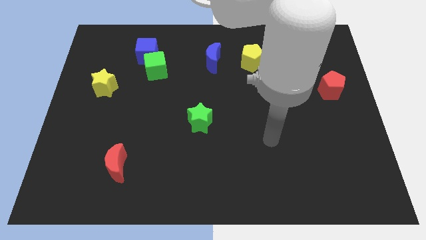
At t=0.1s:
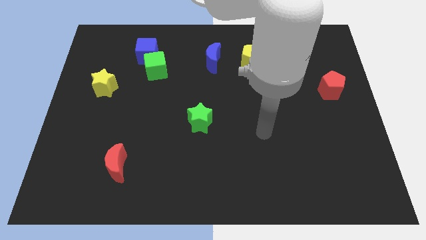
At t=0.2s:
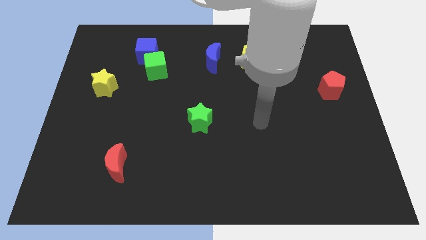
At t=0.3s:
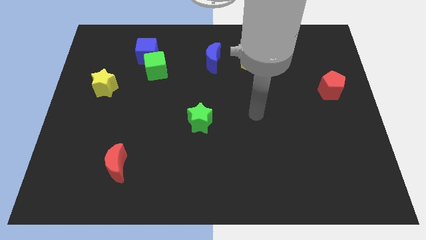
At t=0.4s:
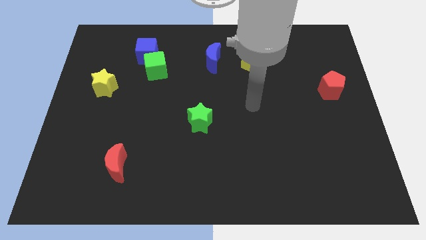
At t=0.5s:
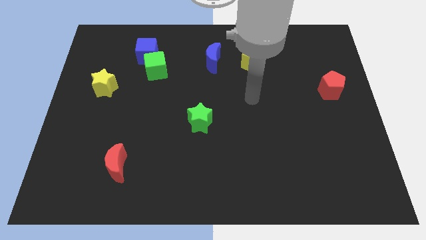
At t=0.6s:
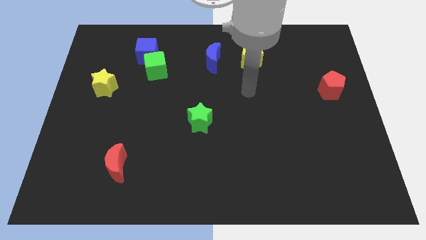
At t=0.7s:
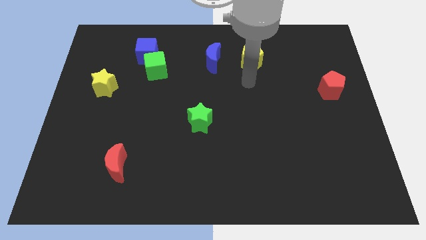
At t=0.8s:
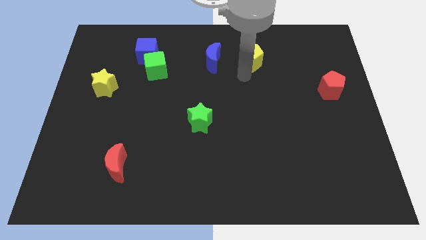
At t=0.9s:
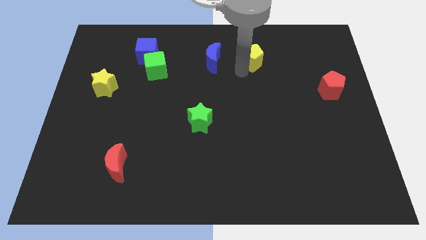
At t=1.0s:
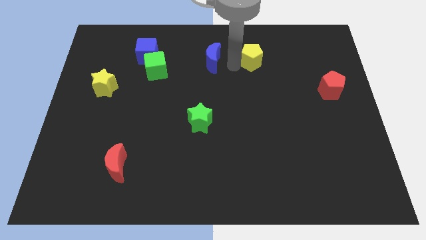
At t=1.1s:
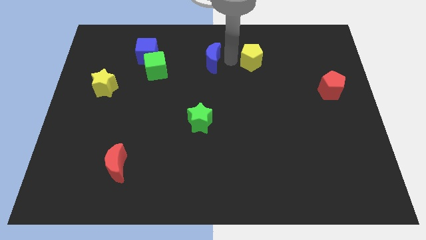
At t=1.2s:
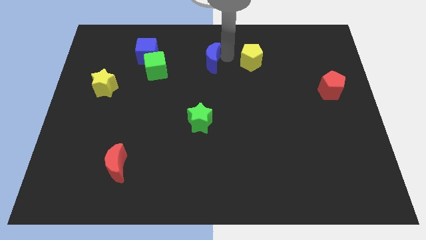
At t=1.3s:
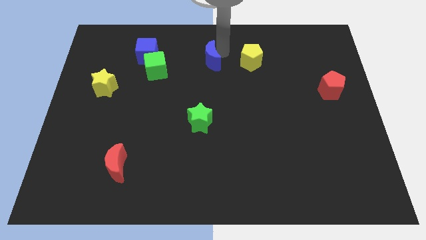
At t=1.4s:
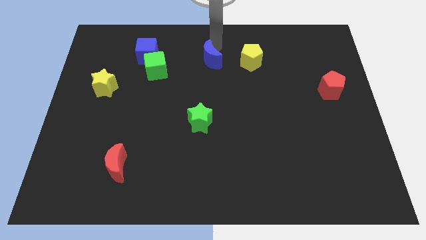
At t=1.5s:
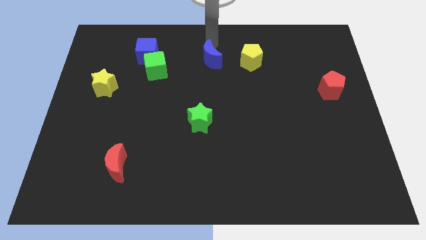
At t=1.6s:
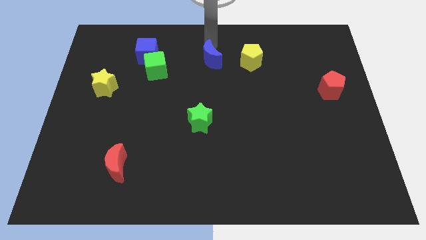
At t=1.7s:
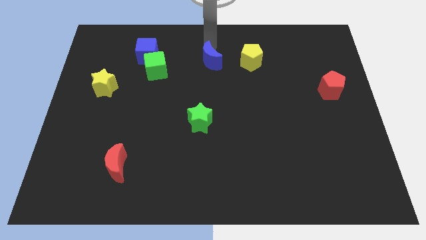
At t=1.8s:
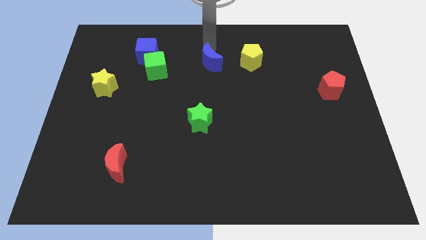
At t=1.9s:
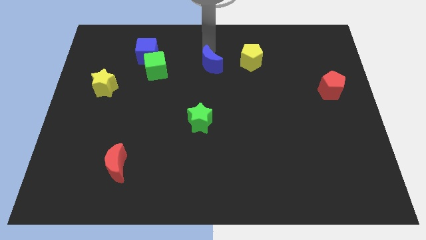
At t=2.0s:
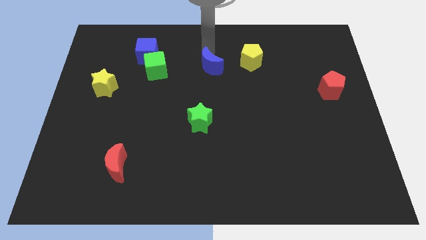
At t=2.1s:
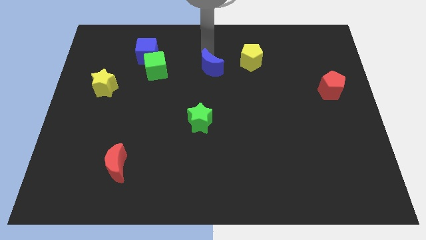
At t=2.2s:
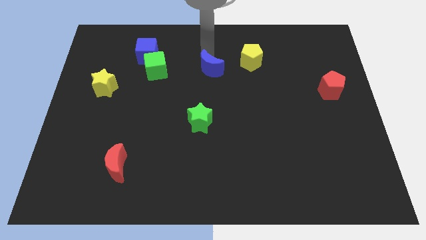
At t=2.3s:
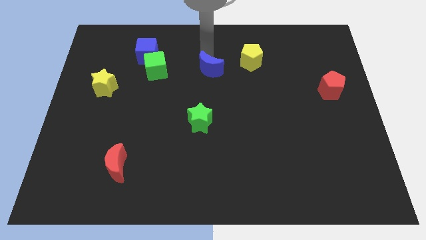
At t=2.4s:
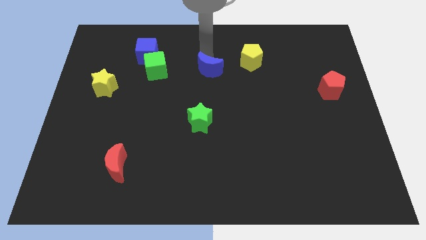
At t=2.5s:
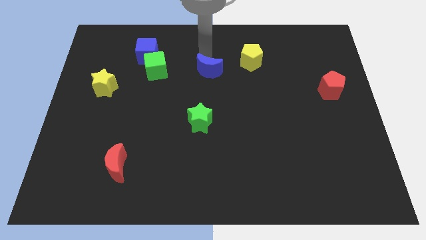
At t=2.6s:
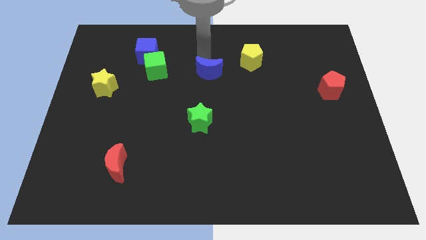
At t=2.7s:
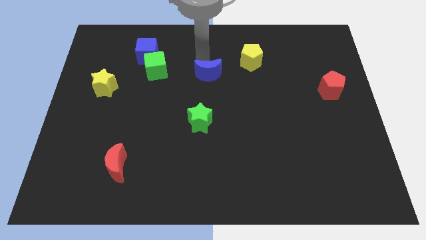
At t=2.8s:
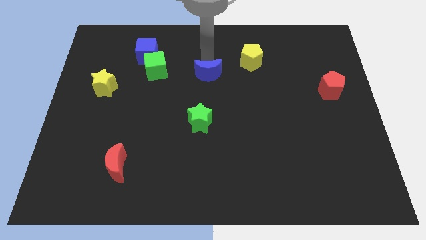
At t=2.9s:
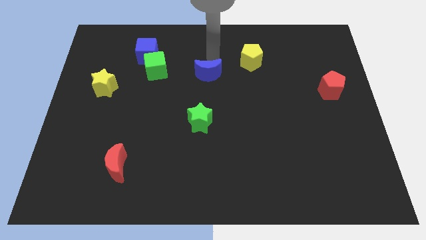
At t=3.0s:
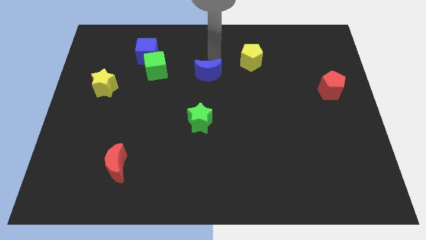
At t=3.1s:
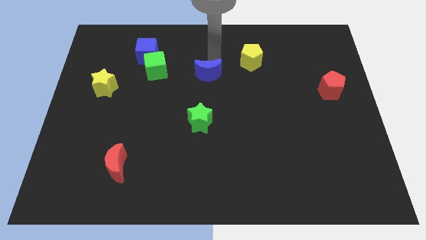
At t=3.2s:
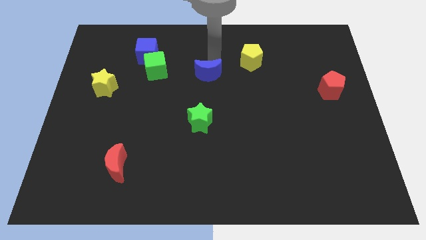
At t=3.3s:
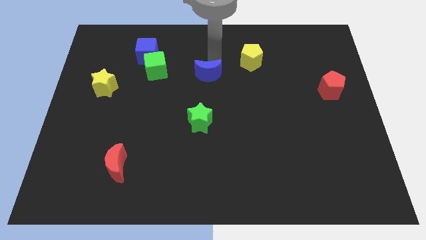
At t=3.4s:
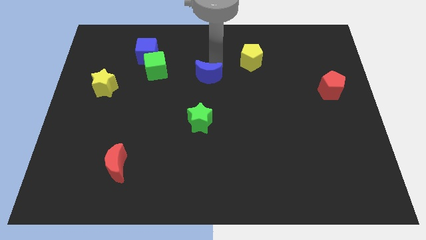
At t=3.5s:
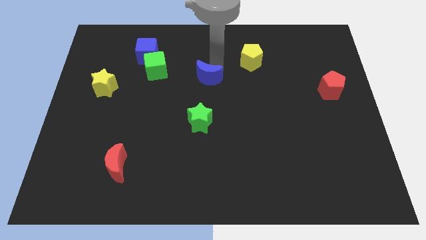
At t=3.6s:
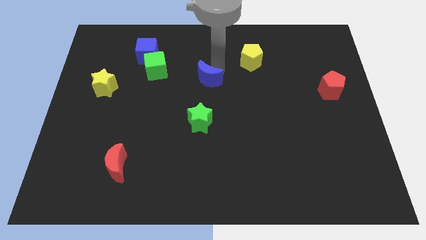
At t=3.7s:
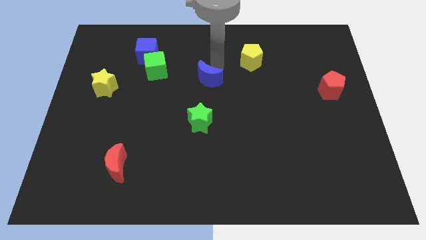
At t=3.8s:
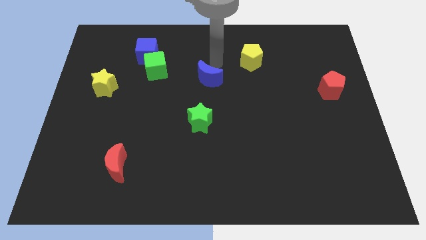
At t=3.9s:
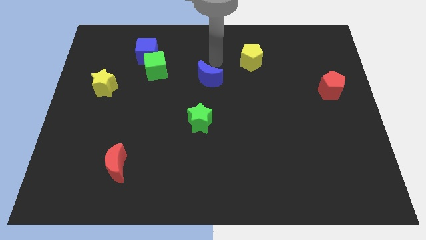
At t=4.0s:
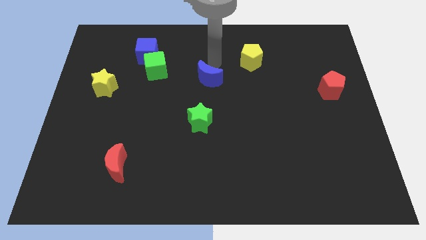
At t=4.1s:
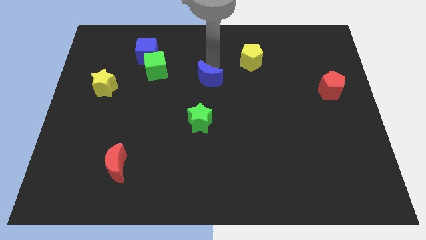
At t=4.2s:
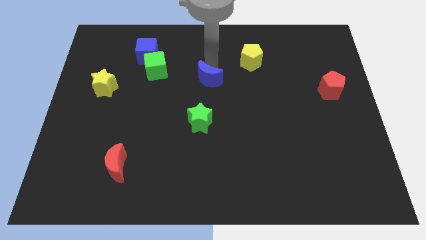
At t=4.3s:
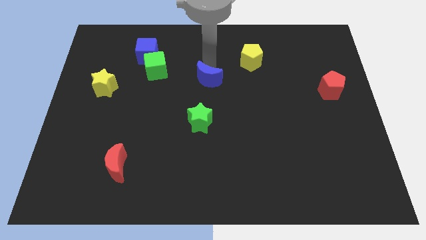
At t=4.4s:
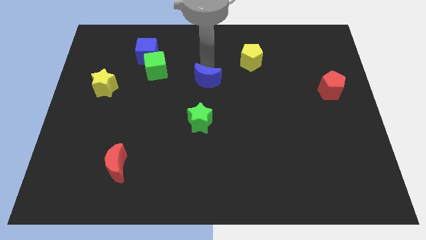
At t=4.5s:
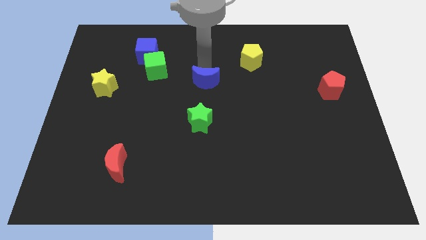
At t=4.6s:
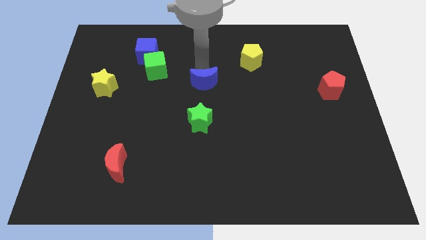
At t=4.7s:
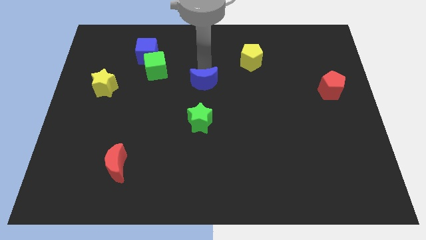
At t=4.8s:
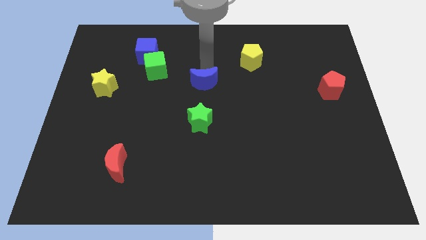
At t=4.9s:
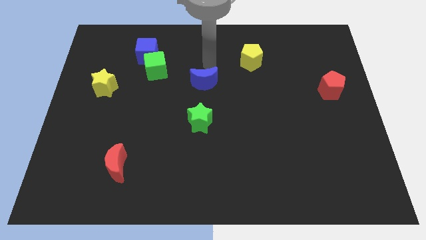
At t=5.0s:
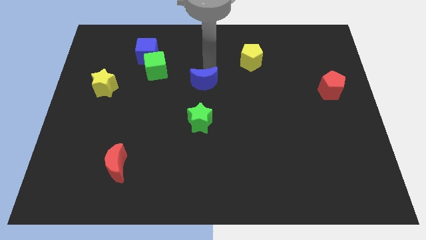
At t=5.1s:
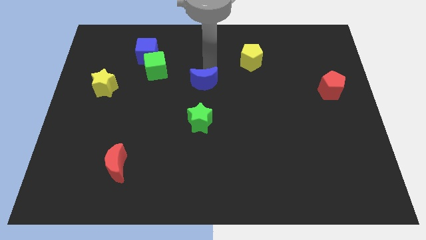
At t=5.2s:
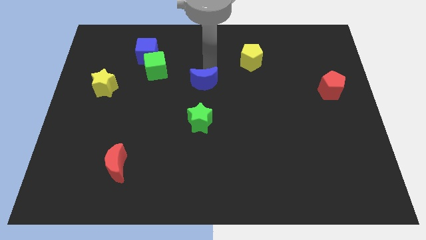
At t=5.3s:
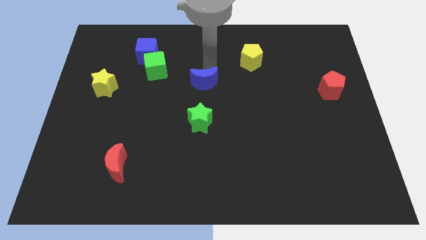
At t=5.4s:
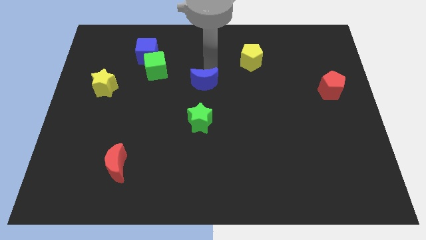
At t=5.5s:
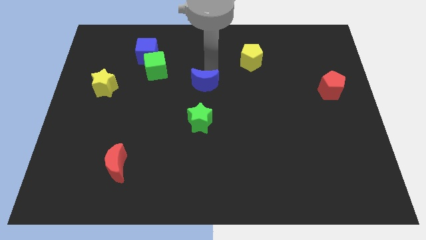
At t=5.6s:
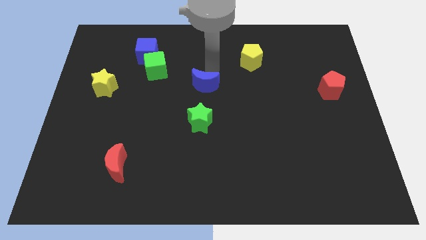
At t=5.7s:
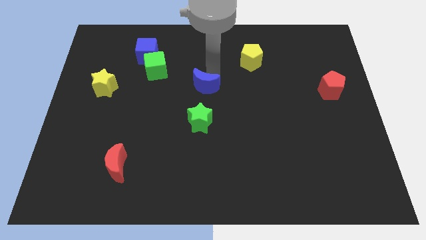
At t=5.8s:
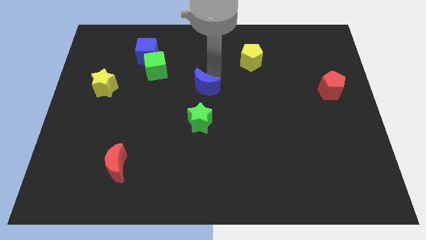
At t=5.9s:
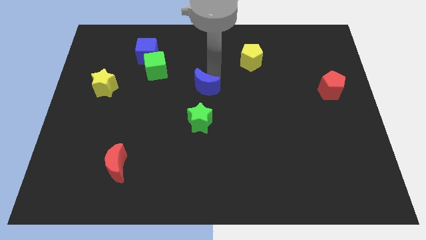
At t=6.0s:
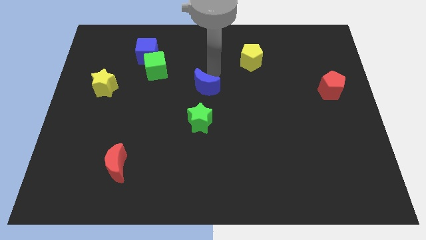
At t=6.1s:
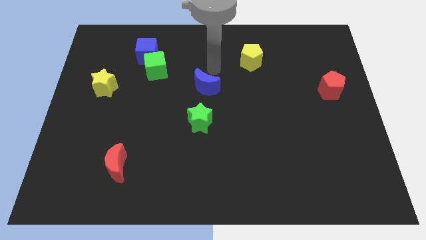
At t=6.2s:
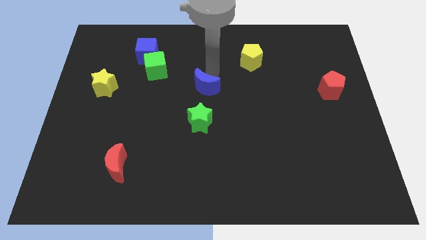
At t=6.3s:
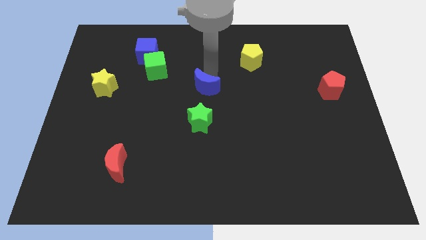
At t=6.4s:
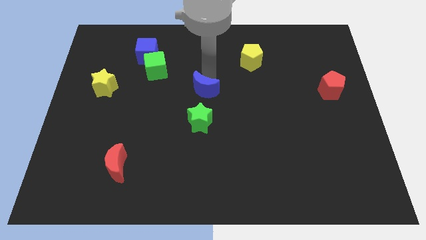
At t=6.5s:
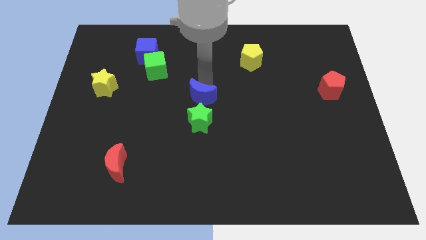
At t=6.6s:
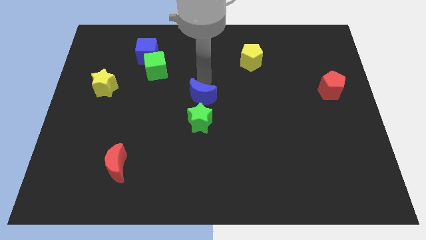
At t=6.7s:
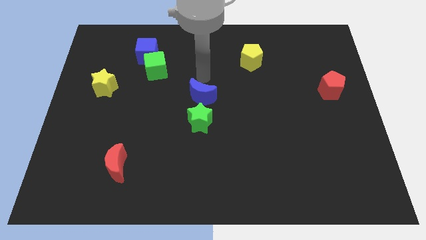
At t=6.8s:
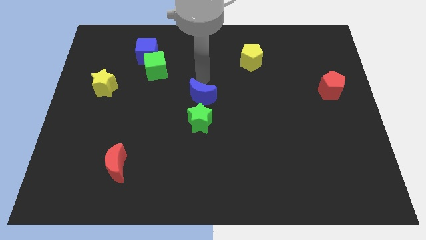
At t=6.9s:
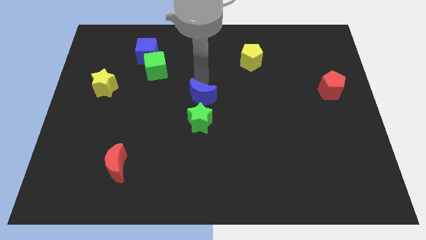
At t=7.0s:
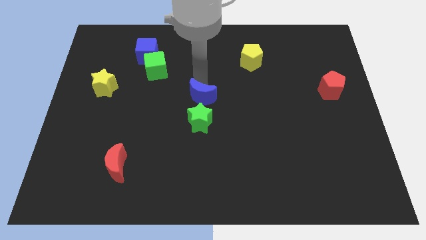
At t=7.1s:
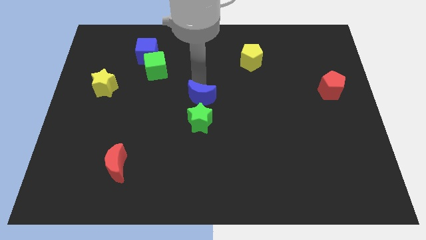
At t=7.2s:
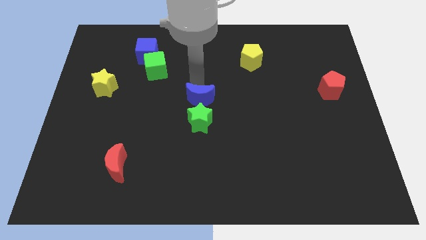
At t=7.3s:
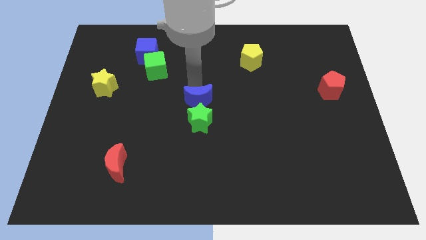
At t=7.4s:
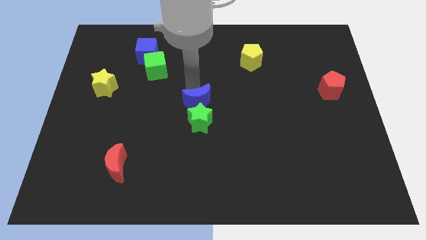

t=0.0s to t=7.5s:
push the blue moon to the green star
